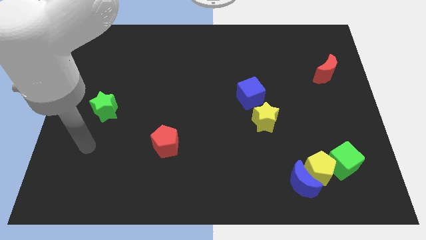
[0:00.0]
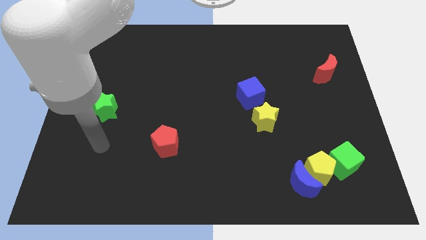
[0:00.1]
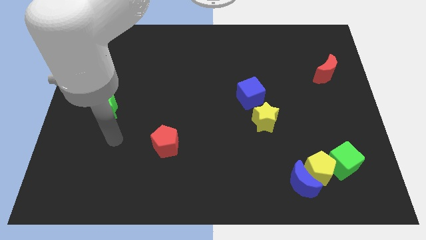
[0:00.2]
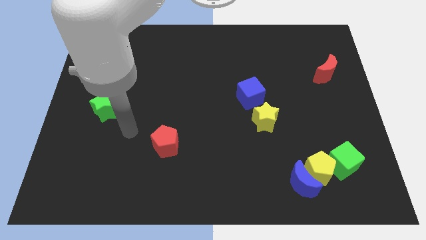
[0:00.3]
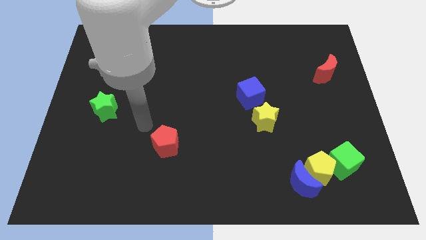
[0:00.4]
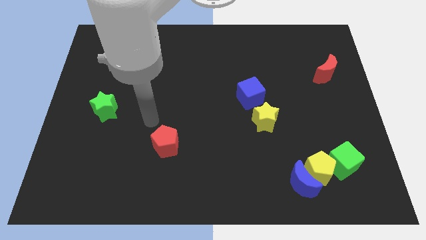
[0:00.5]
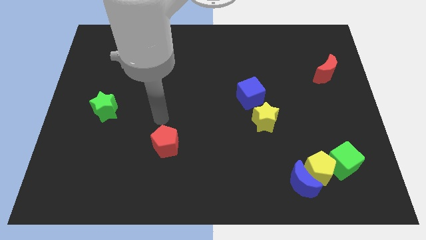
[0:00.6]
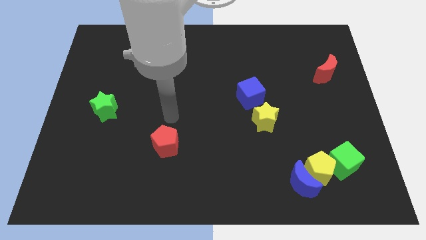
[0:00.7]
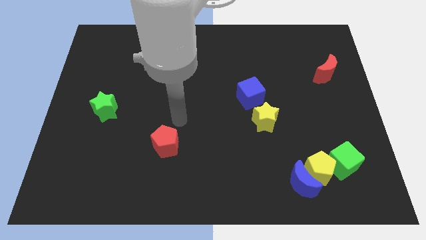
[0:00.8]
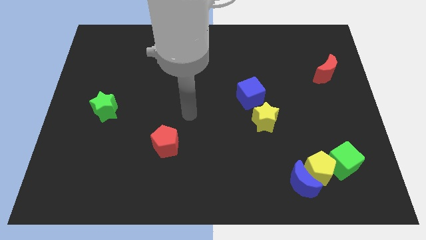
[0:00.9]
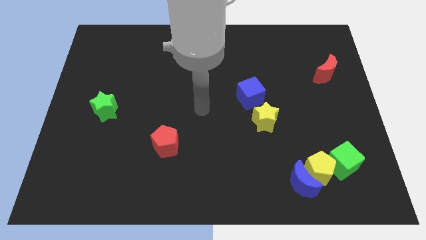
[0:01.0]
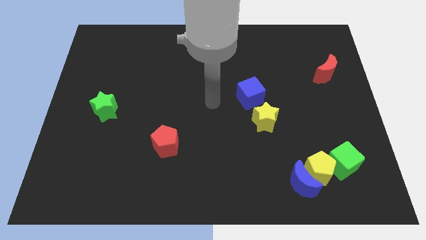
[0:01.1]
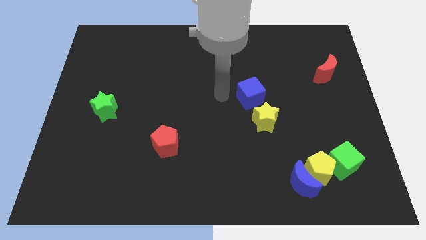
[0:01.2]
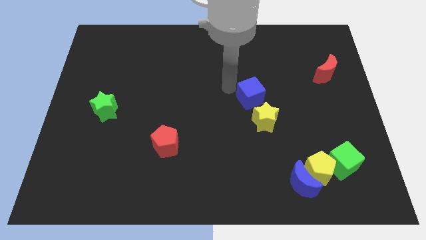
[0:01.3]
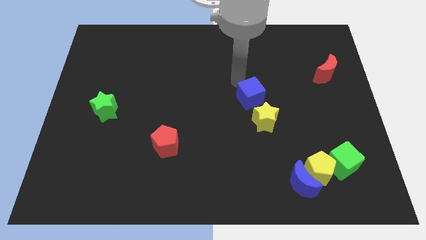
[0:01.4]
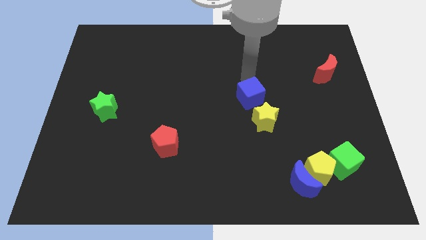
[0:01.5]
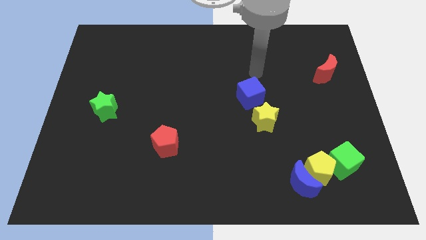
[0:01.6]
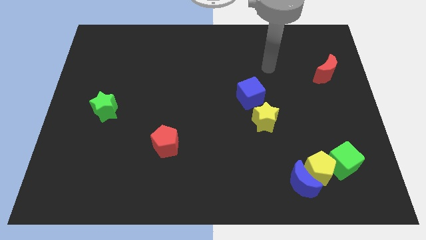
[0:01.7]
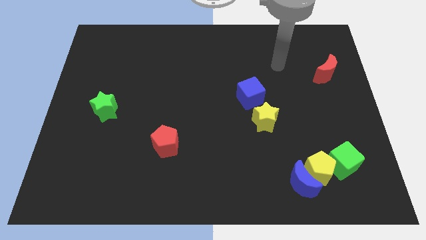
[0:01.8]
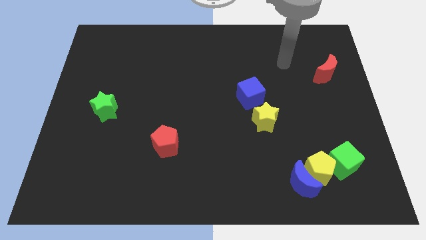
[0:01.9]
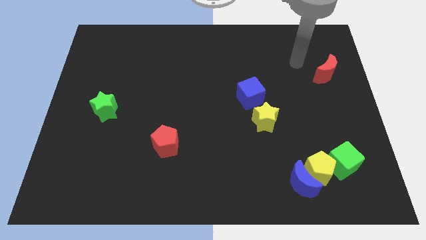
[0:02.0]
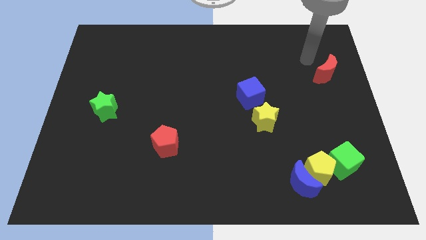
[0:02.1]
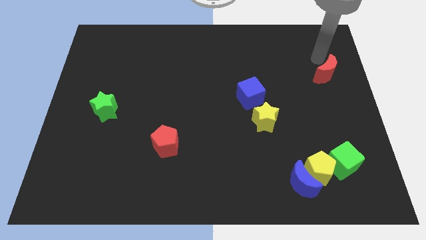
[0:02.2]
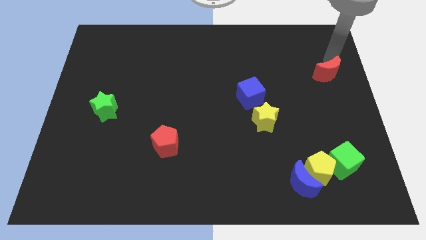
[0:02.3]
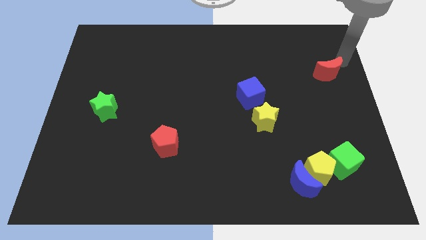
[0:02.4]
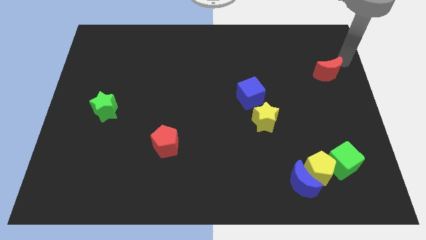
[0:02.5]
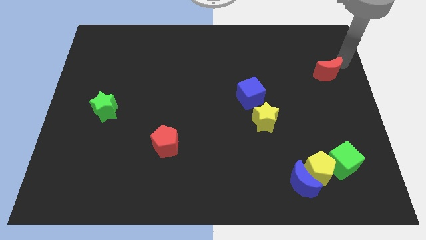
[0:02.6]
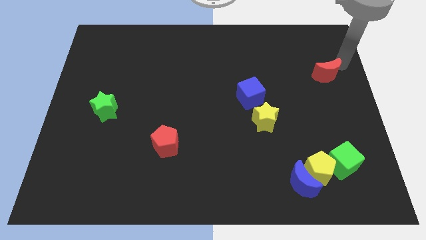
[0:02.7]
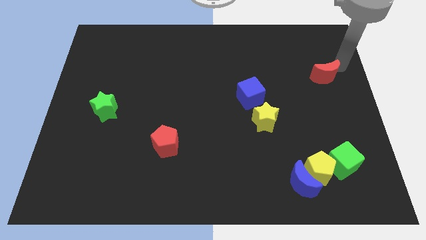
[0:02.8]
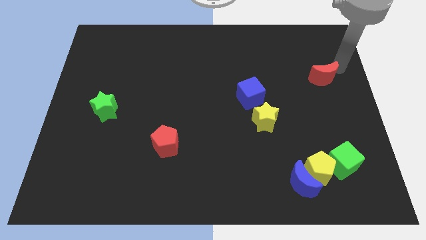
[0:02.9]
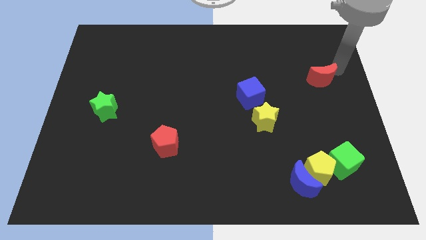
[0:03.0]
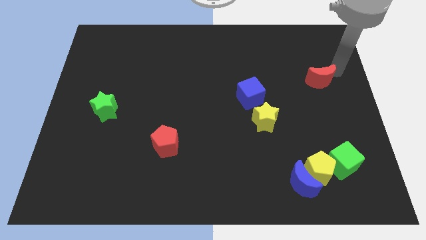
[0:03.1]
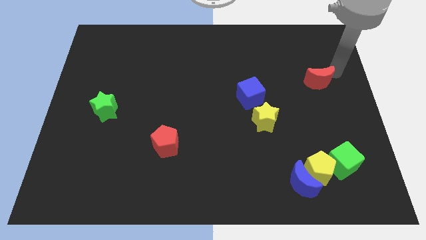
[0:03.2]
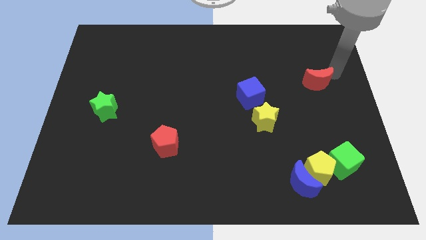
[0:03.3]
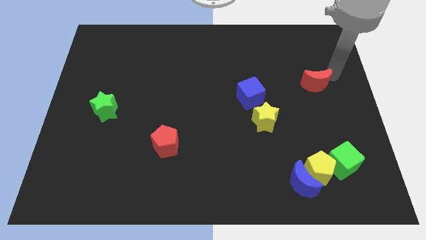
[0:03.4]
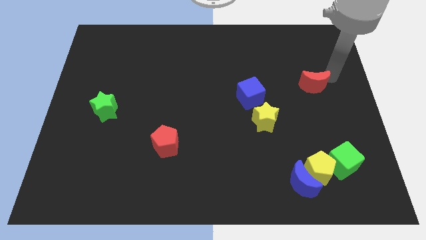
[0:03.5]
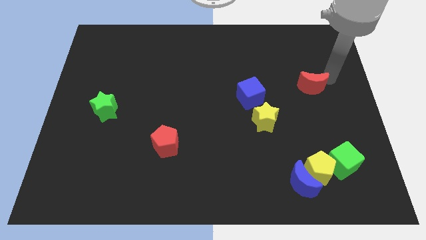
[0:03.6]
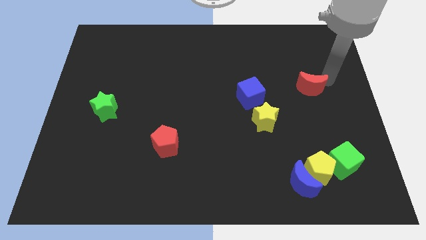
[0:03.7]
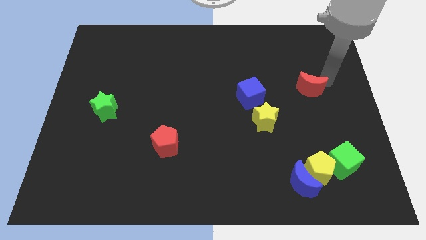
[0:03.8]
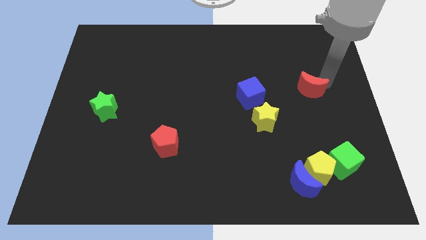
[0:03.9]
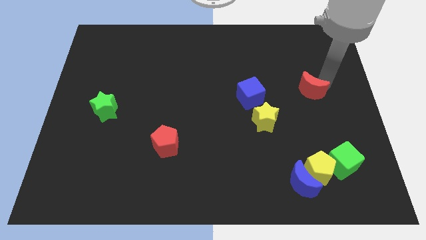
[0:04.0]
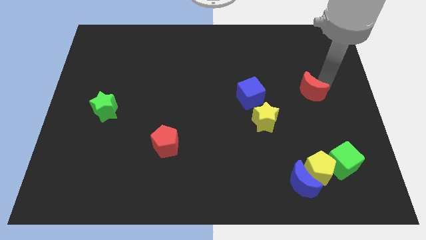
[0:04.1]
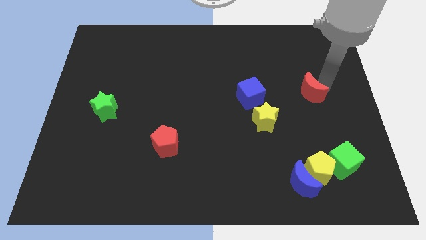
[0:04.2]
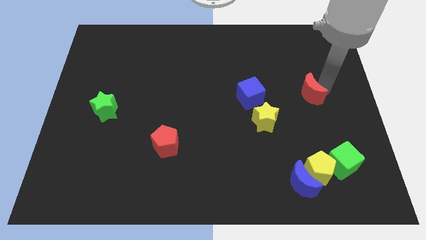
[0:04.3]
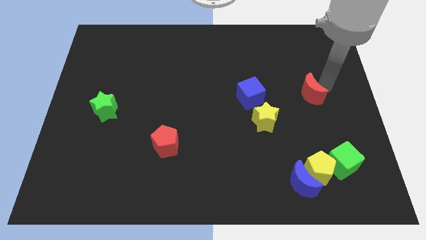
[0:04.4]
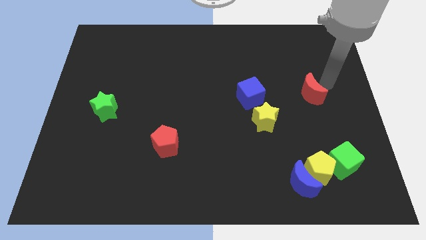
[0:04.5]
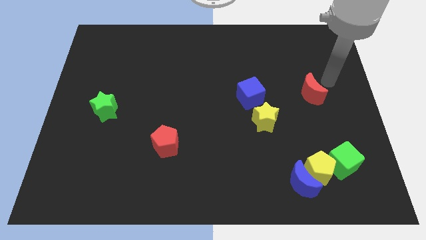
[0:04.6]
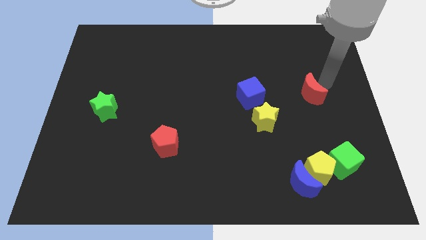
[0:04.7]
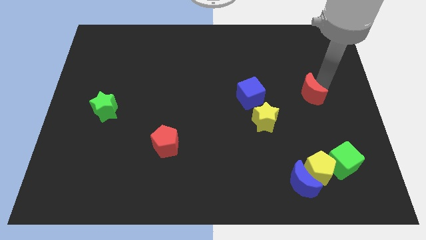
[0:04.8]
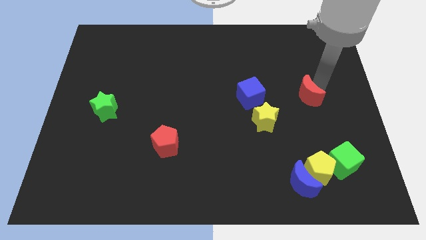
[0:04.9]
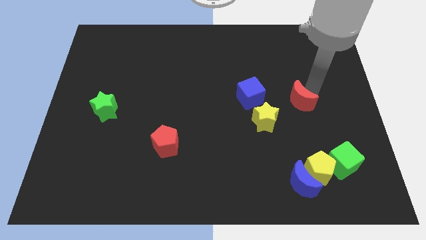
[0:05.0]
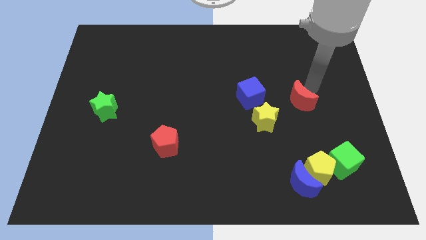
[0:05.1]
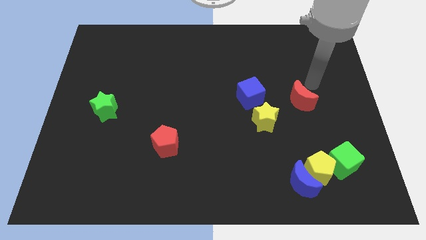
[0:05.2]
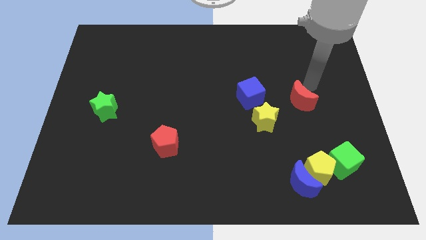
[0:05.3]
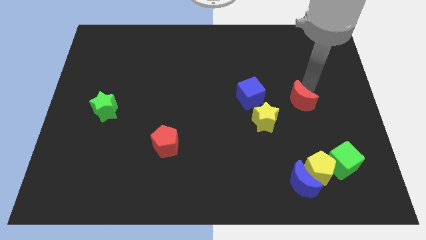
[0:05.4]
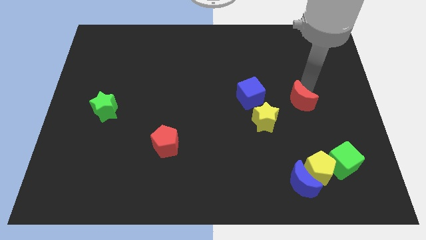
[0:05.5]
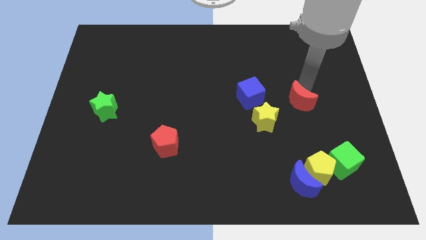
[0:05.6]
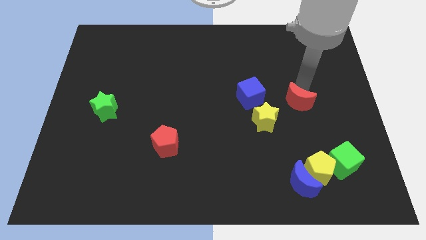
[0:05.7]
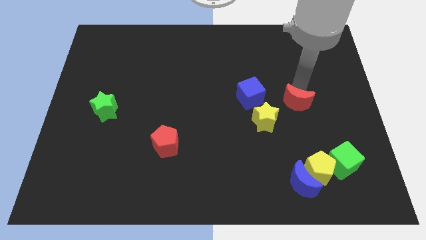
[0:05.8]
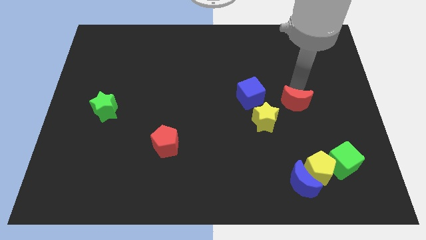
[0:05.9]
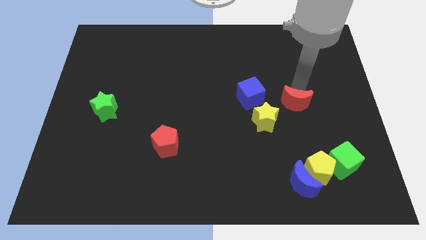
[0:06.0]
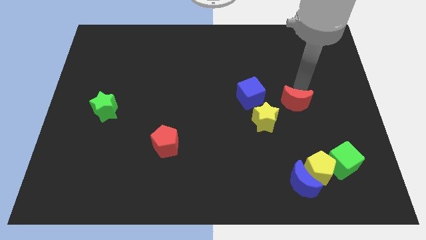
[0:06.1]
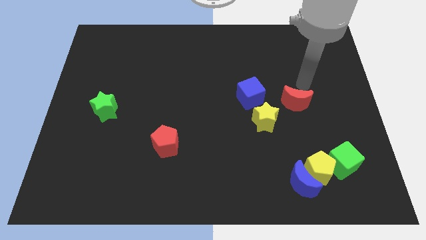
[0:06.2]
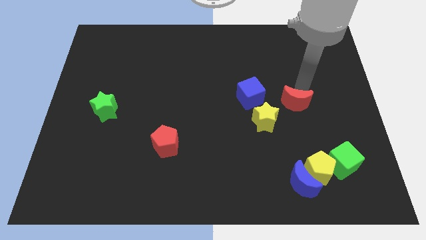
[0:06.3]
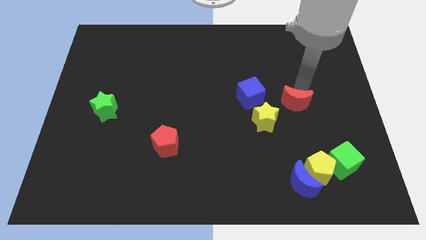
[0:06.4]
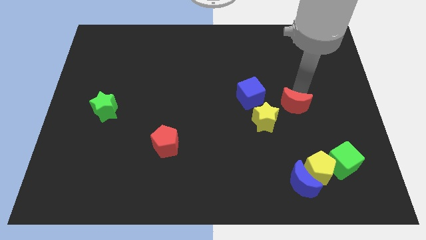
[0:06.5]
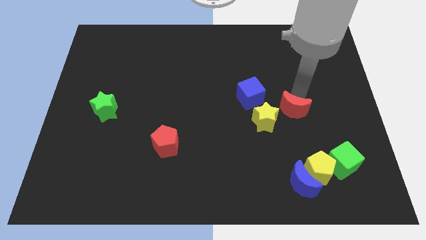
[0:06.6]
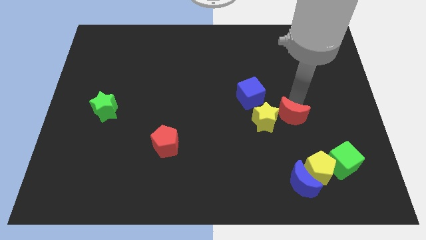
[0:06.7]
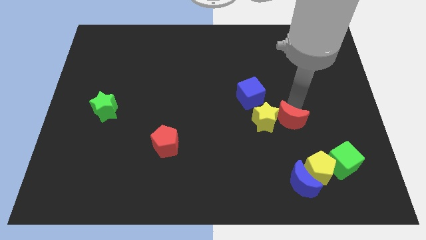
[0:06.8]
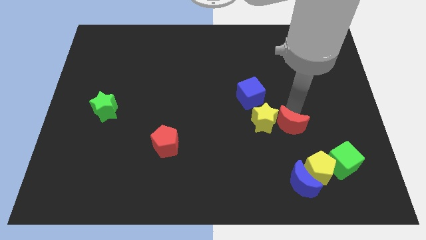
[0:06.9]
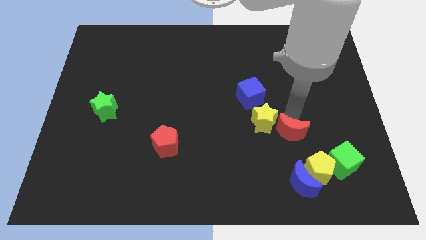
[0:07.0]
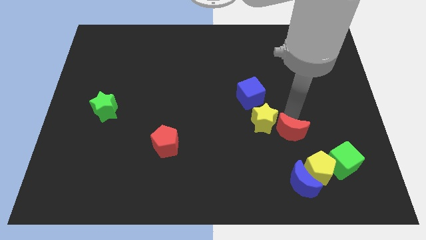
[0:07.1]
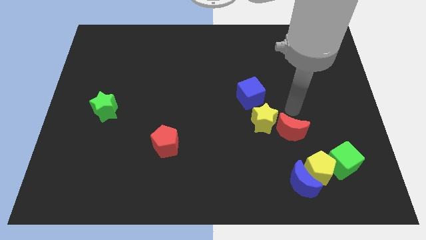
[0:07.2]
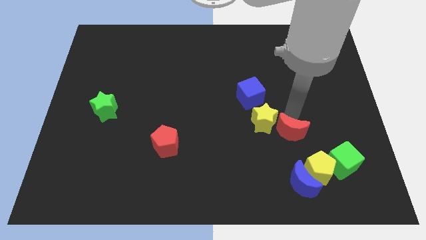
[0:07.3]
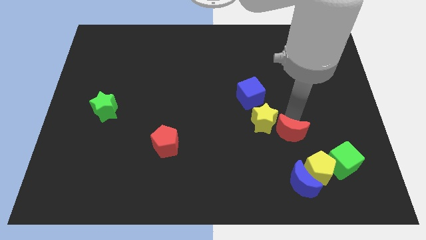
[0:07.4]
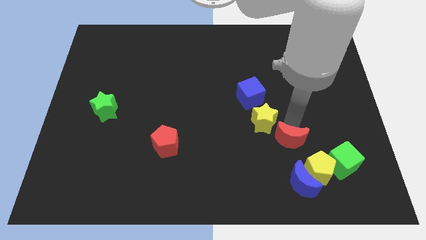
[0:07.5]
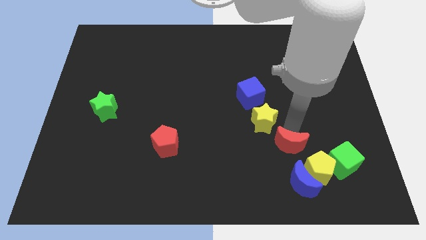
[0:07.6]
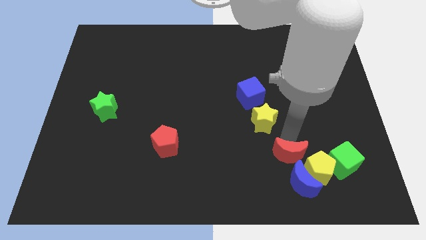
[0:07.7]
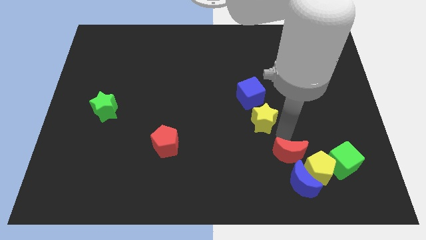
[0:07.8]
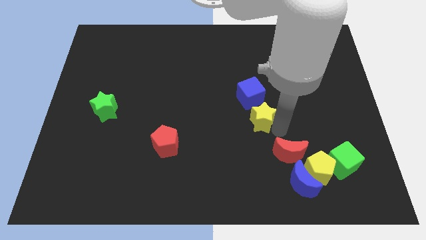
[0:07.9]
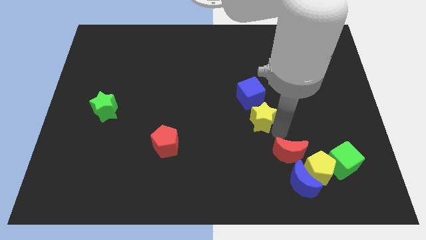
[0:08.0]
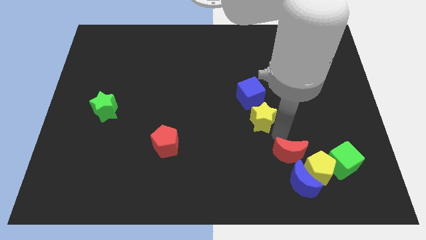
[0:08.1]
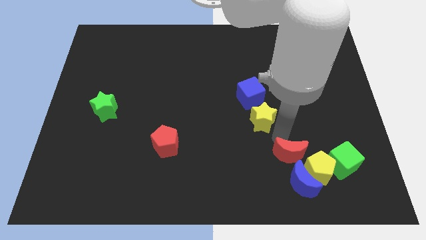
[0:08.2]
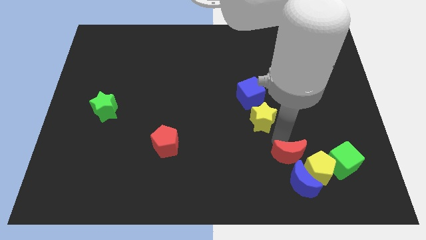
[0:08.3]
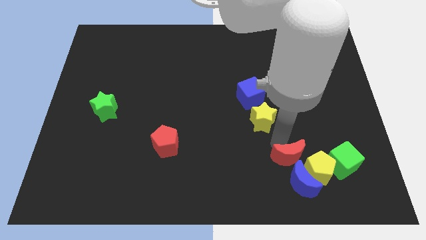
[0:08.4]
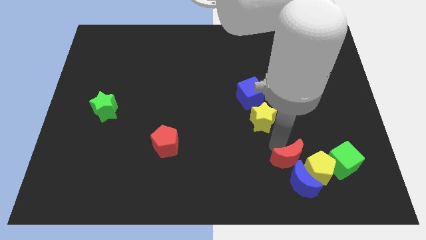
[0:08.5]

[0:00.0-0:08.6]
put the red moon to the blue moon
